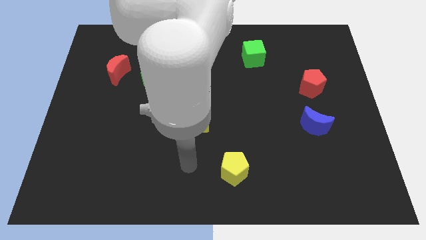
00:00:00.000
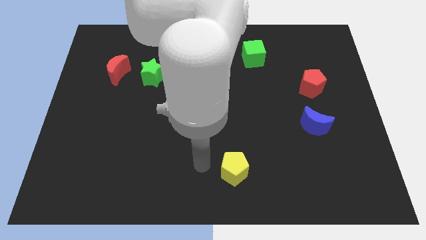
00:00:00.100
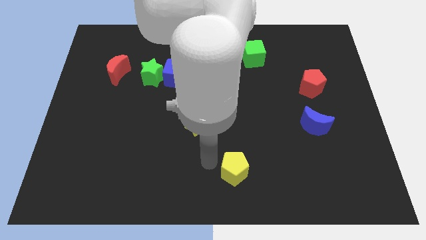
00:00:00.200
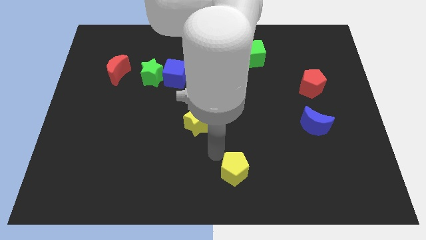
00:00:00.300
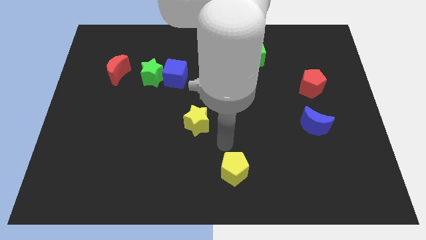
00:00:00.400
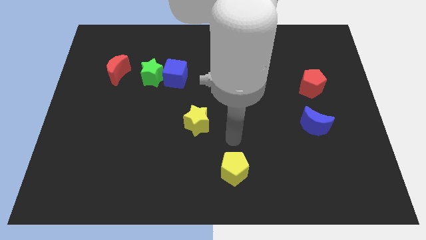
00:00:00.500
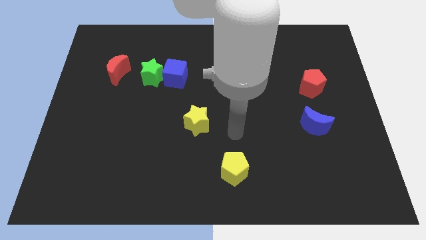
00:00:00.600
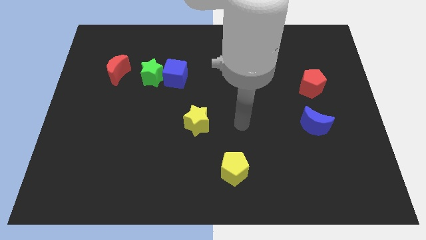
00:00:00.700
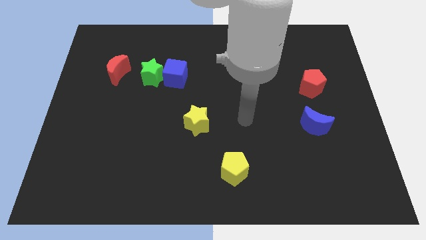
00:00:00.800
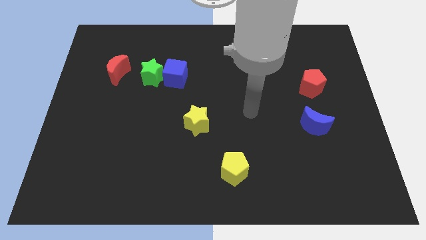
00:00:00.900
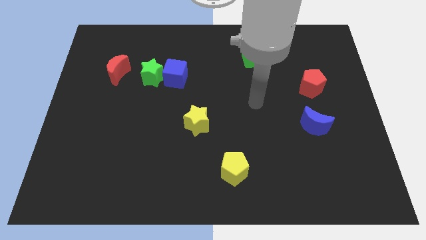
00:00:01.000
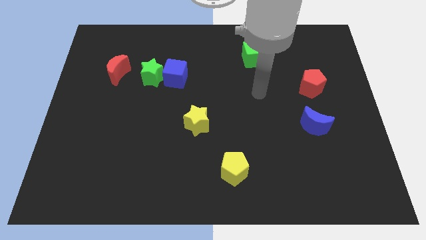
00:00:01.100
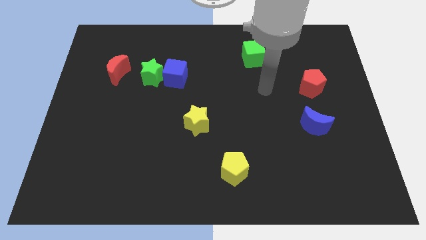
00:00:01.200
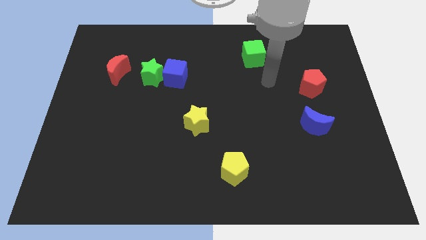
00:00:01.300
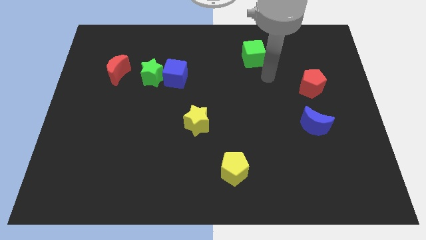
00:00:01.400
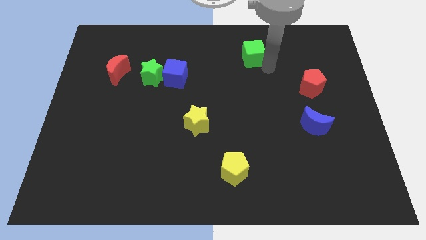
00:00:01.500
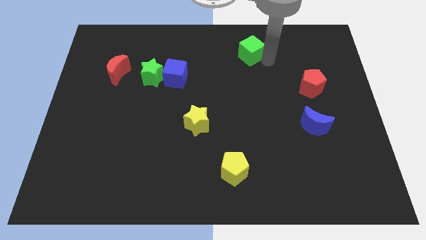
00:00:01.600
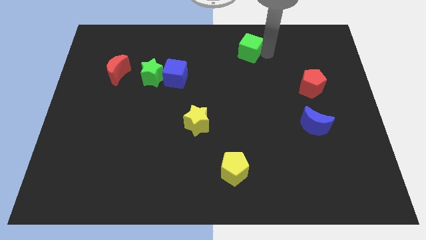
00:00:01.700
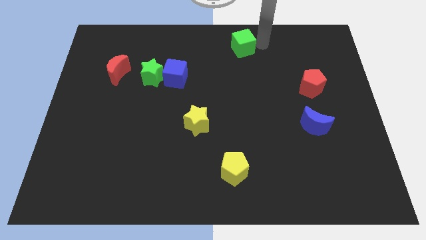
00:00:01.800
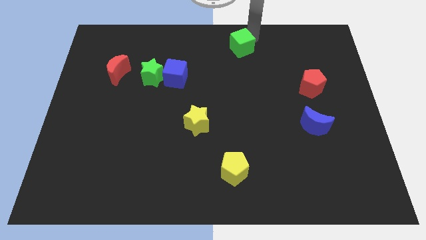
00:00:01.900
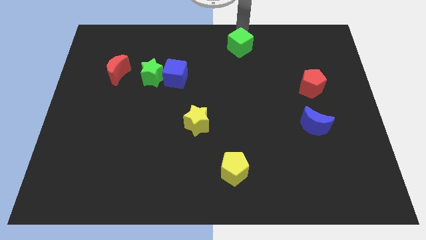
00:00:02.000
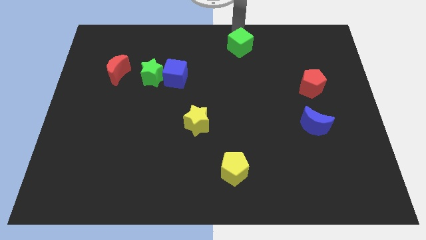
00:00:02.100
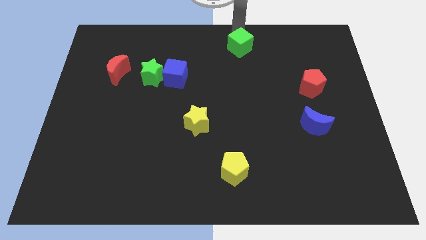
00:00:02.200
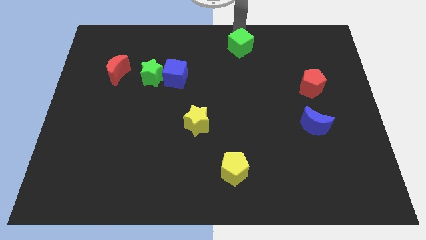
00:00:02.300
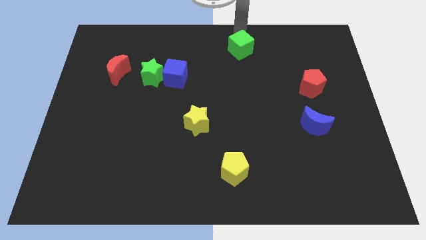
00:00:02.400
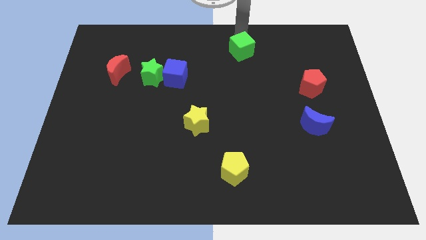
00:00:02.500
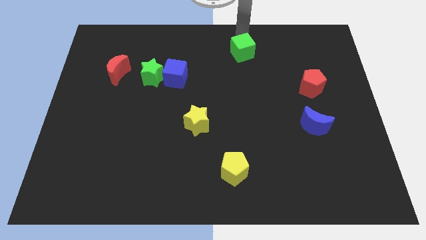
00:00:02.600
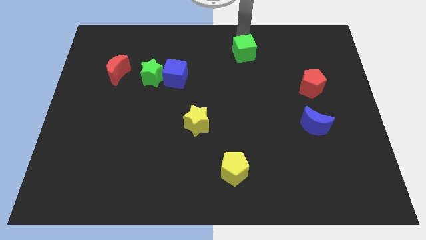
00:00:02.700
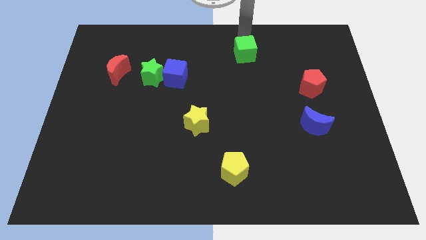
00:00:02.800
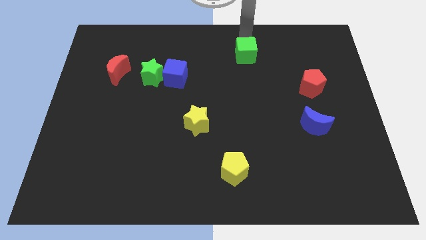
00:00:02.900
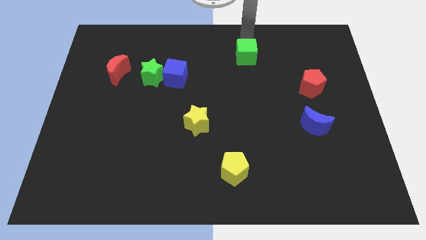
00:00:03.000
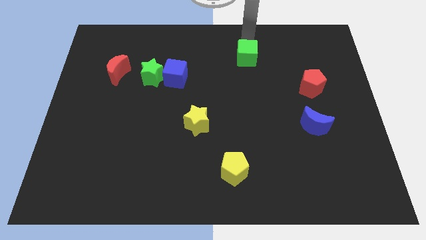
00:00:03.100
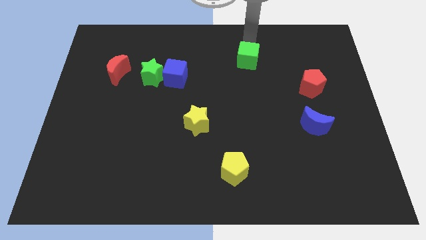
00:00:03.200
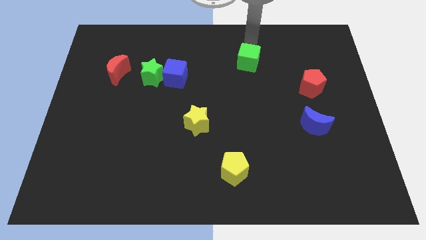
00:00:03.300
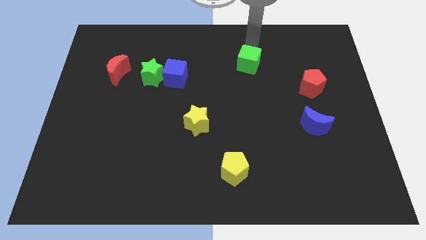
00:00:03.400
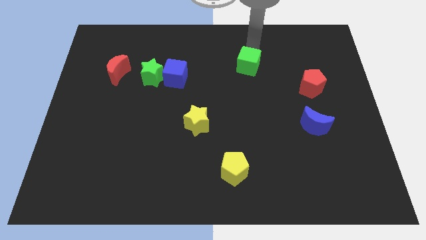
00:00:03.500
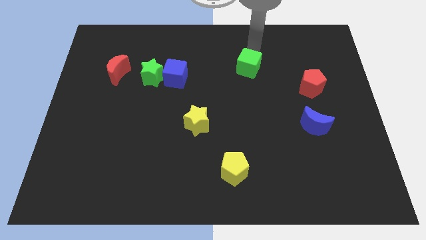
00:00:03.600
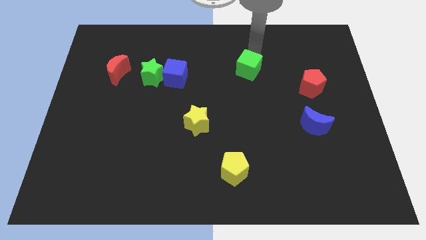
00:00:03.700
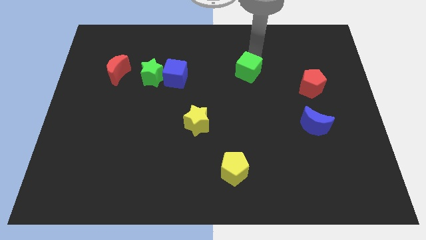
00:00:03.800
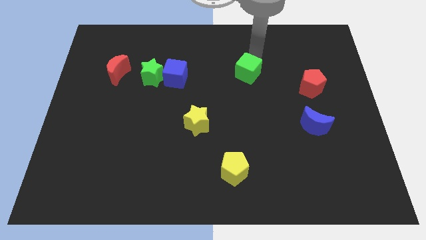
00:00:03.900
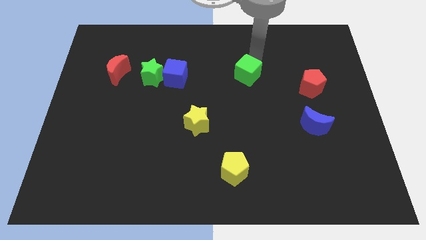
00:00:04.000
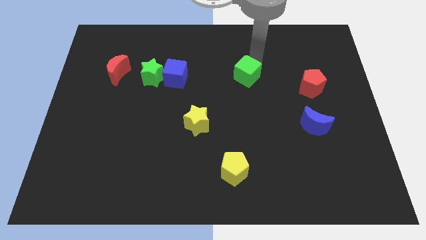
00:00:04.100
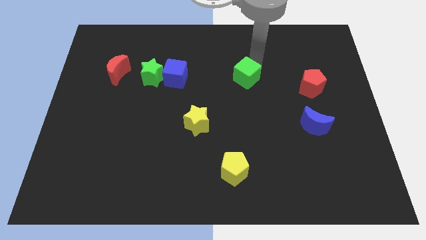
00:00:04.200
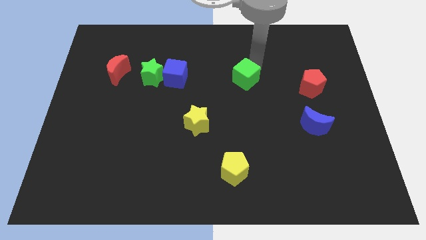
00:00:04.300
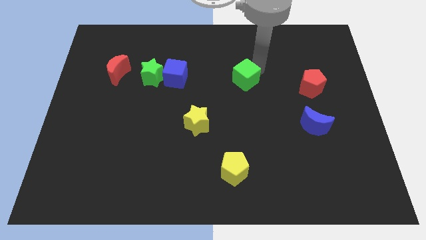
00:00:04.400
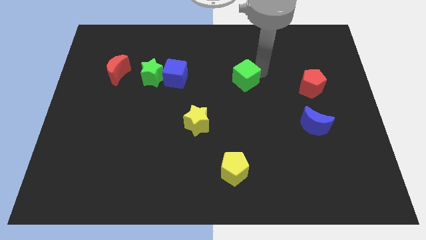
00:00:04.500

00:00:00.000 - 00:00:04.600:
move the green cube slightly downwards and then left

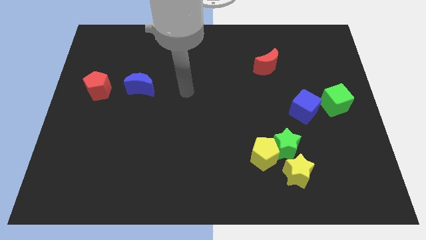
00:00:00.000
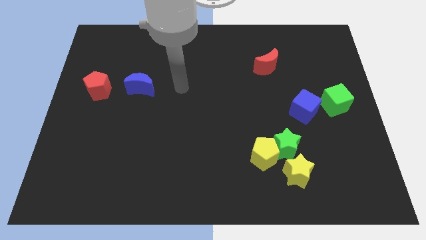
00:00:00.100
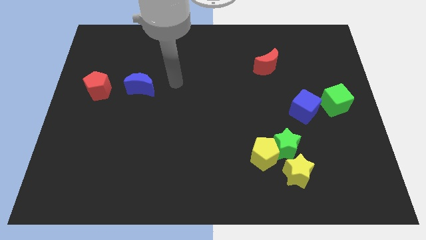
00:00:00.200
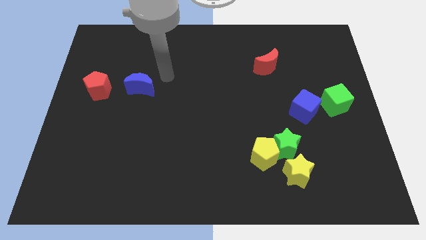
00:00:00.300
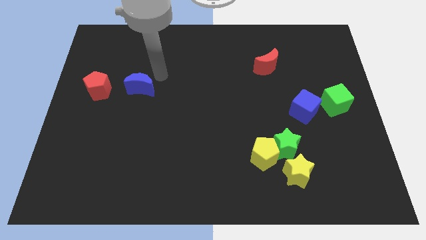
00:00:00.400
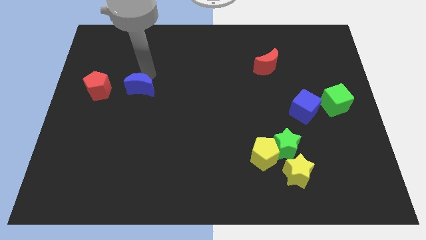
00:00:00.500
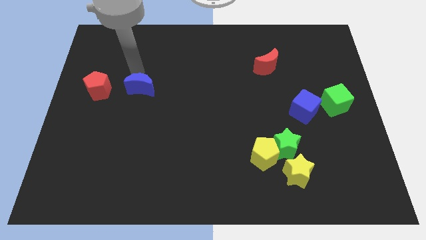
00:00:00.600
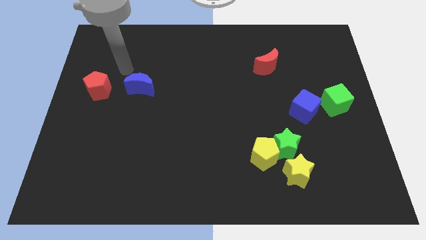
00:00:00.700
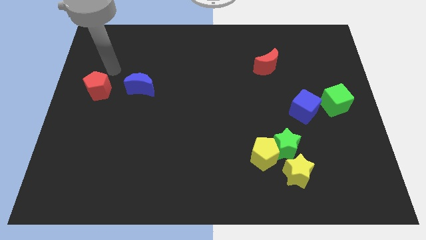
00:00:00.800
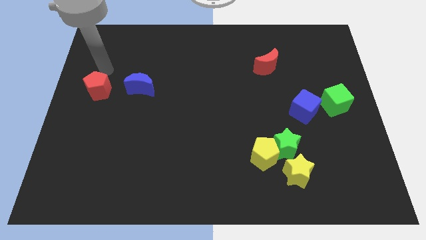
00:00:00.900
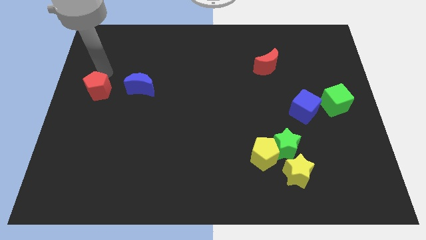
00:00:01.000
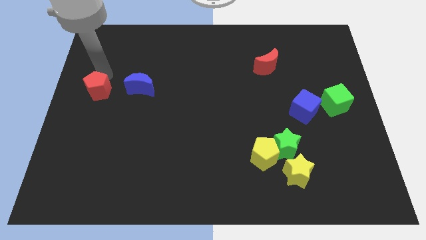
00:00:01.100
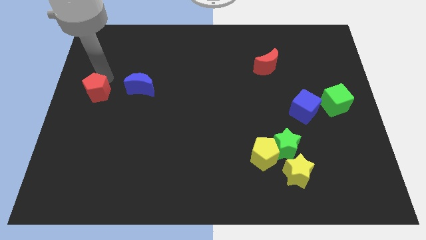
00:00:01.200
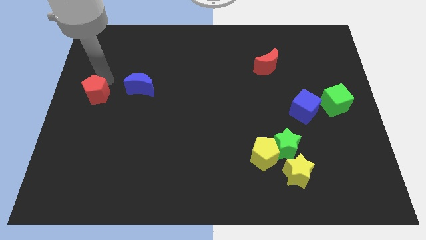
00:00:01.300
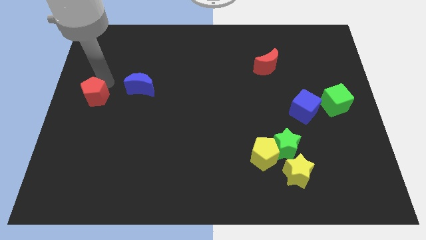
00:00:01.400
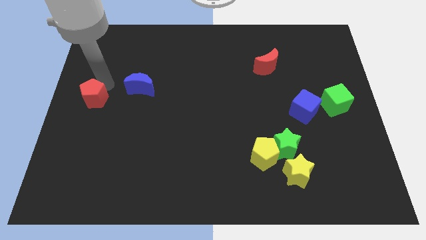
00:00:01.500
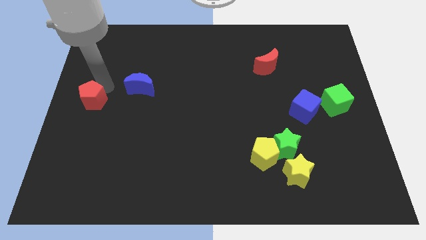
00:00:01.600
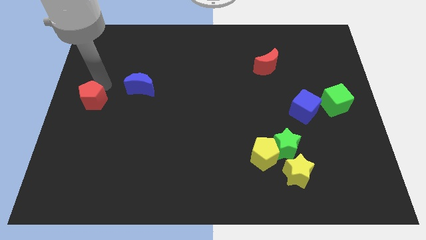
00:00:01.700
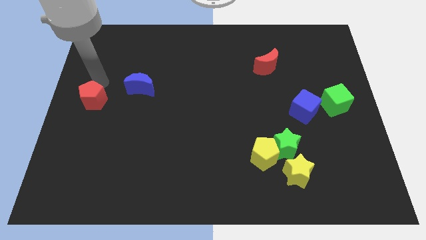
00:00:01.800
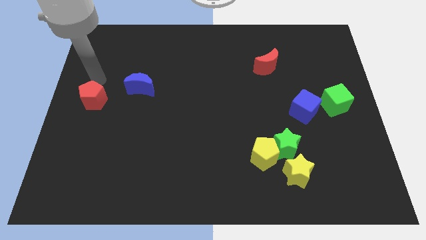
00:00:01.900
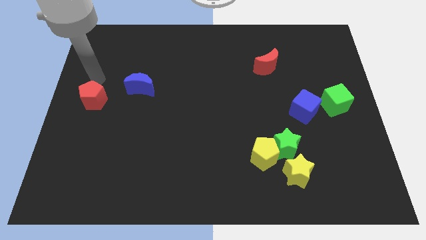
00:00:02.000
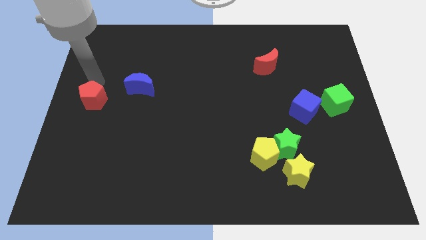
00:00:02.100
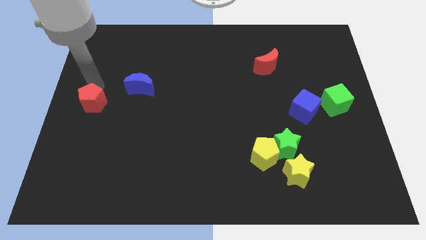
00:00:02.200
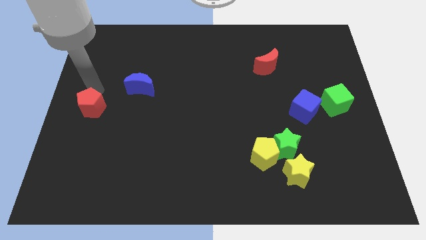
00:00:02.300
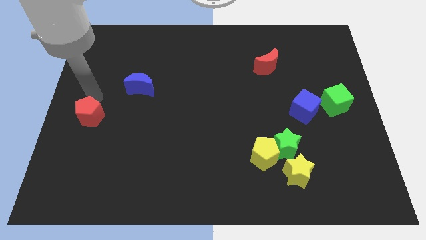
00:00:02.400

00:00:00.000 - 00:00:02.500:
slide the red pentagon downwards slightly

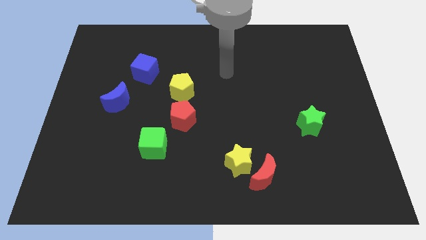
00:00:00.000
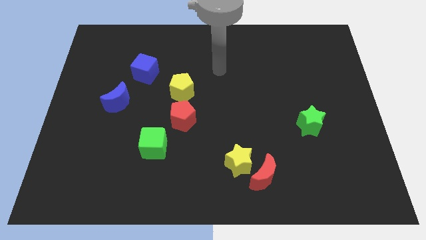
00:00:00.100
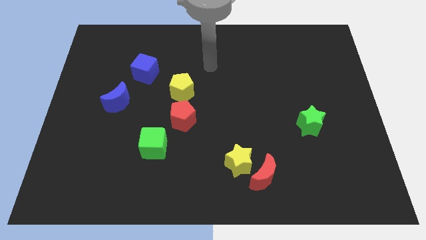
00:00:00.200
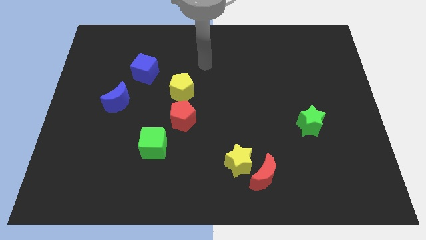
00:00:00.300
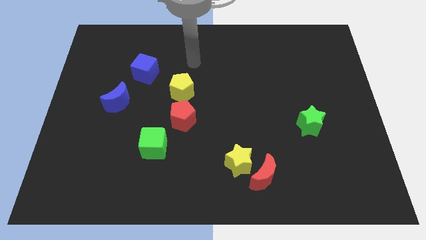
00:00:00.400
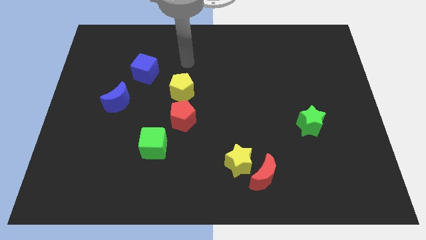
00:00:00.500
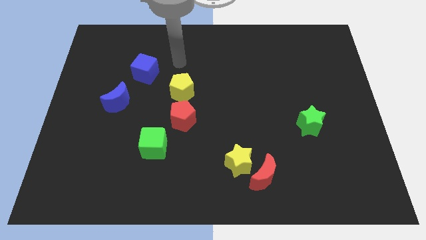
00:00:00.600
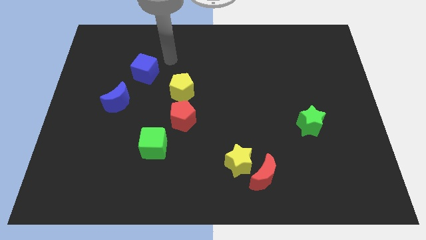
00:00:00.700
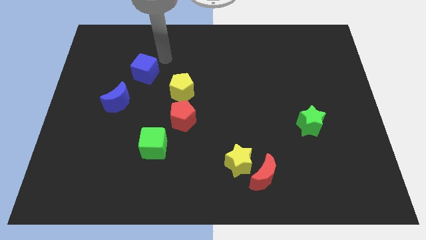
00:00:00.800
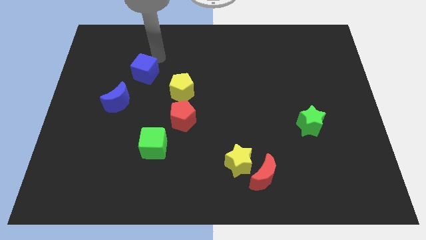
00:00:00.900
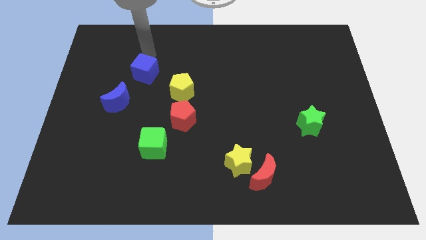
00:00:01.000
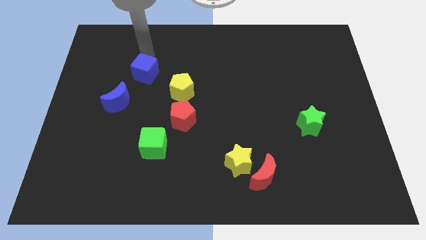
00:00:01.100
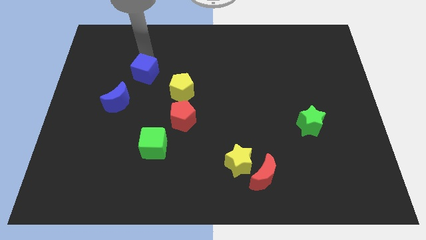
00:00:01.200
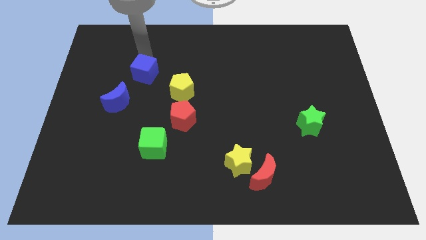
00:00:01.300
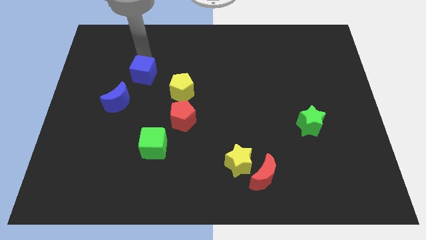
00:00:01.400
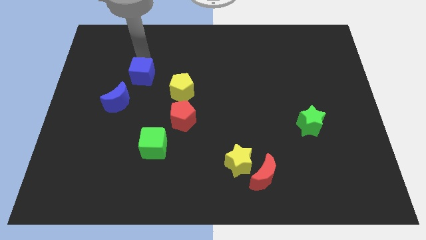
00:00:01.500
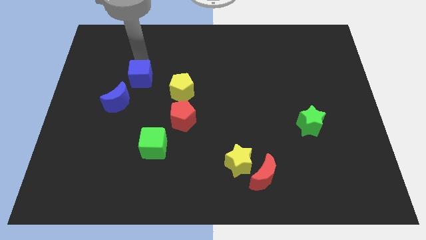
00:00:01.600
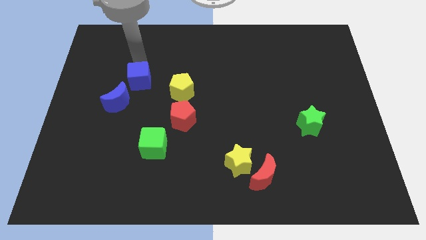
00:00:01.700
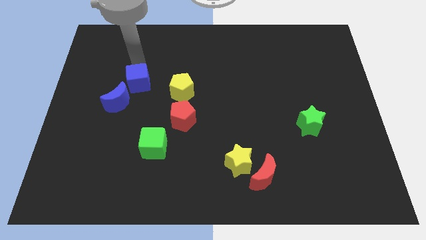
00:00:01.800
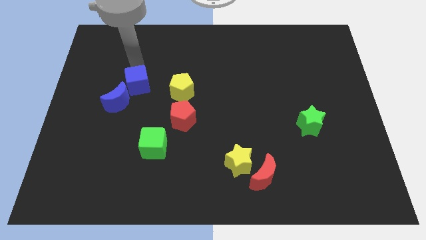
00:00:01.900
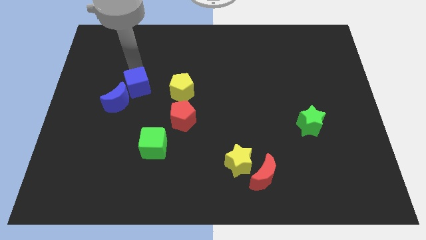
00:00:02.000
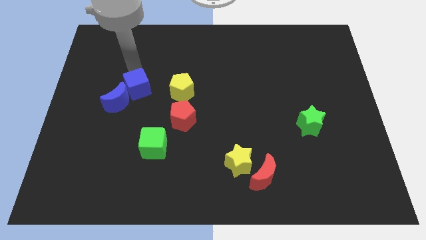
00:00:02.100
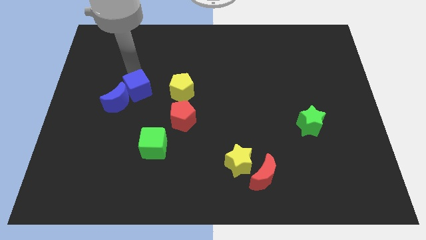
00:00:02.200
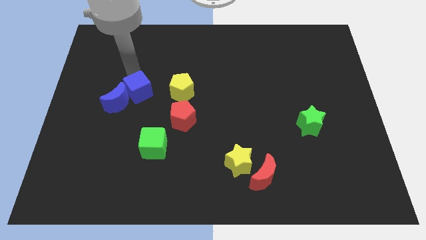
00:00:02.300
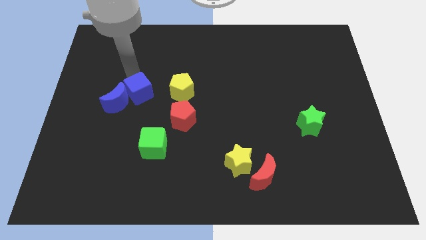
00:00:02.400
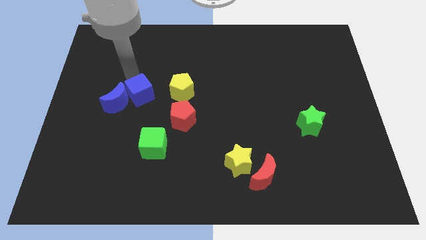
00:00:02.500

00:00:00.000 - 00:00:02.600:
slide the blue cube down a bit
